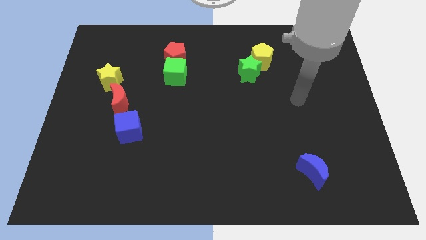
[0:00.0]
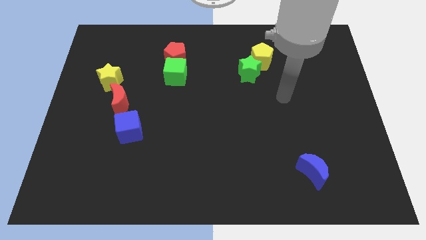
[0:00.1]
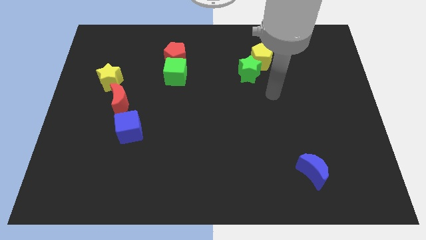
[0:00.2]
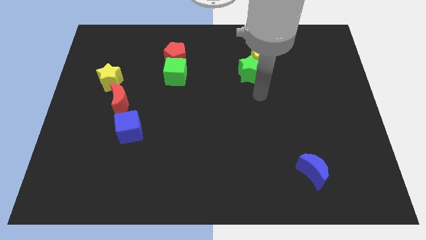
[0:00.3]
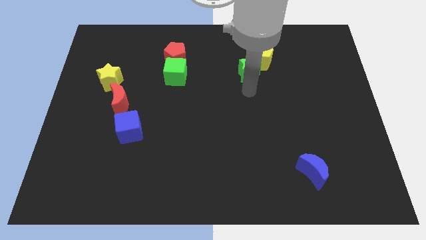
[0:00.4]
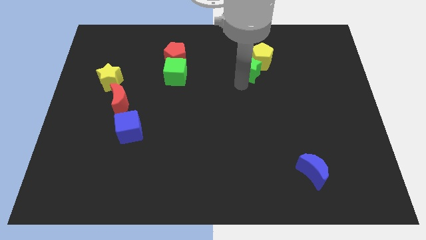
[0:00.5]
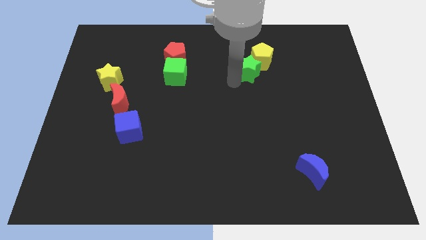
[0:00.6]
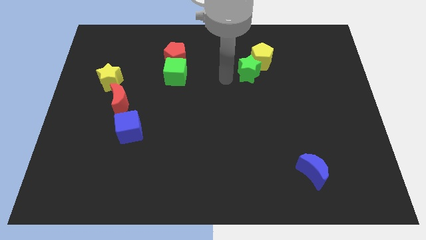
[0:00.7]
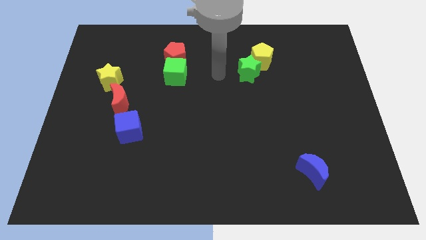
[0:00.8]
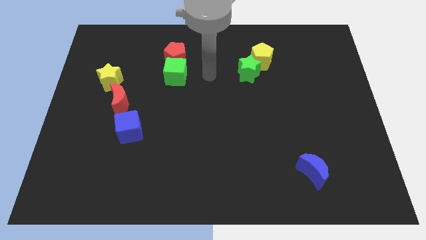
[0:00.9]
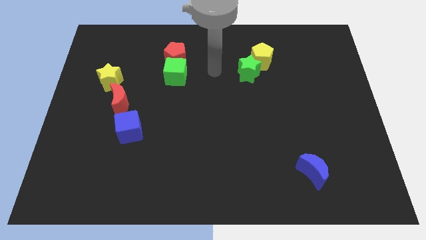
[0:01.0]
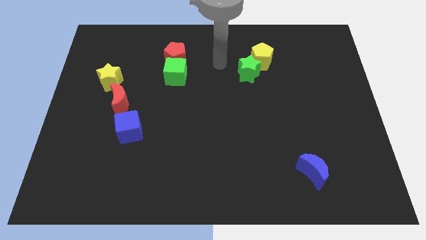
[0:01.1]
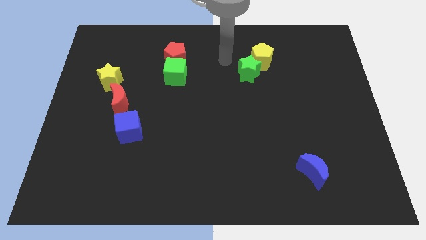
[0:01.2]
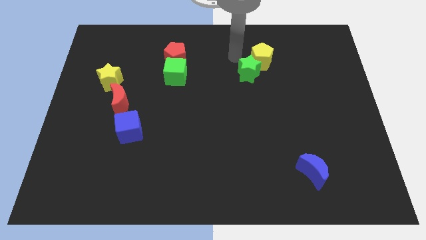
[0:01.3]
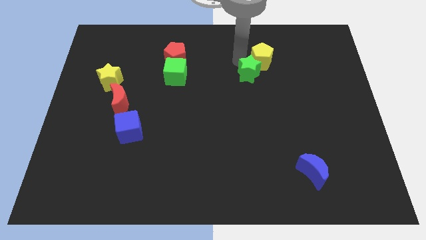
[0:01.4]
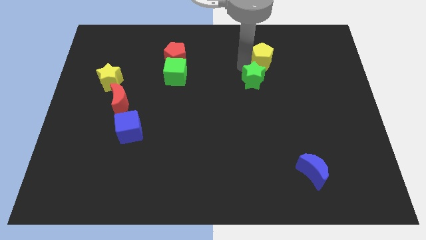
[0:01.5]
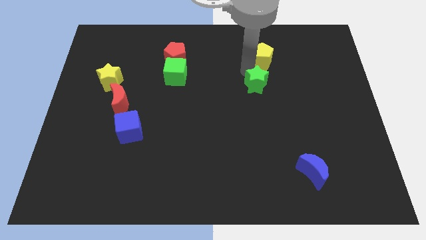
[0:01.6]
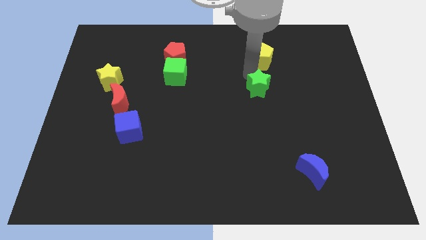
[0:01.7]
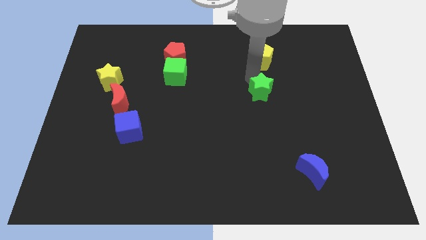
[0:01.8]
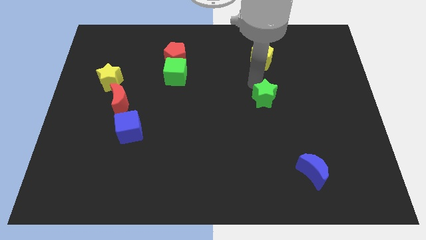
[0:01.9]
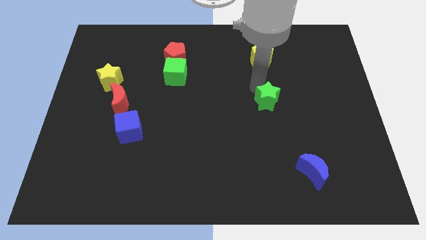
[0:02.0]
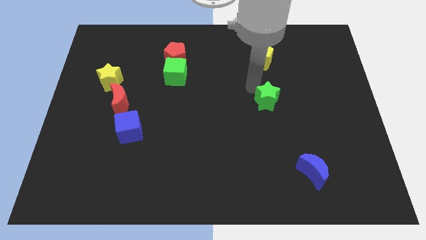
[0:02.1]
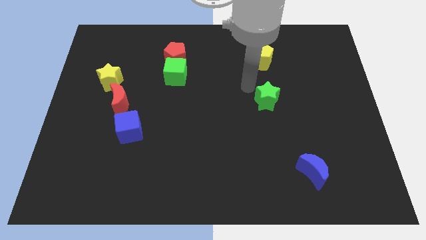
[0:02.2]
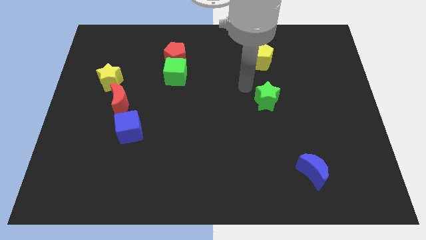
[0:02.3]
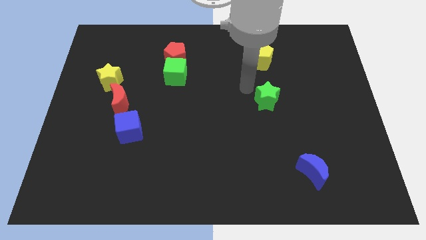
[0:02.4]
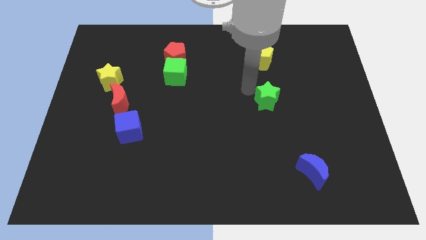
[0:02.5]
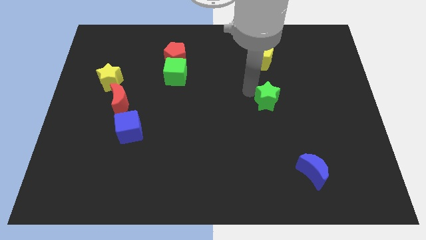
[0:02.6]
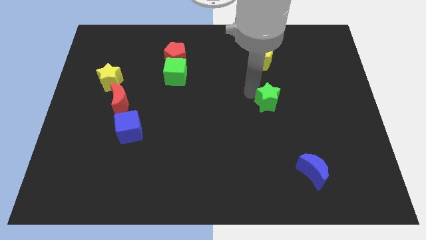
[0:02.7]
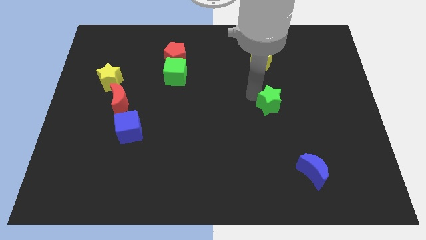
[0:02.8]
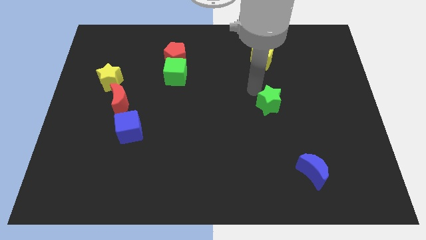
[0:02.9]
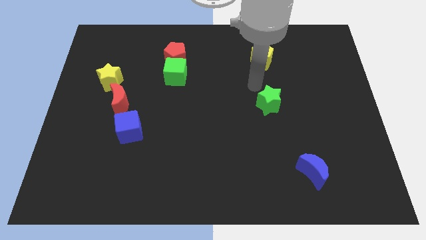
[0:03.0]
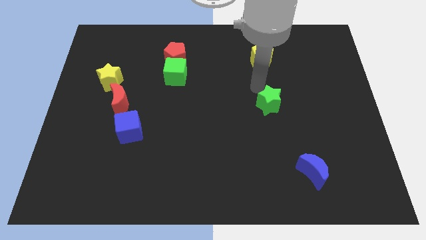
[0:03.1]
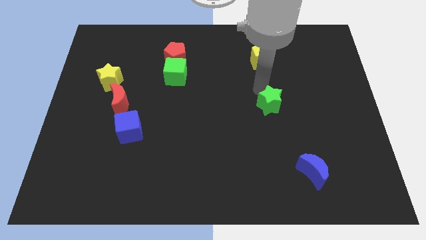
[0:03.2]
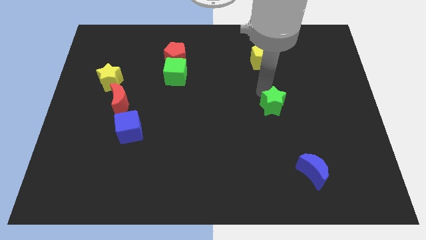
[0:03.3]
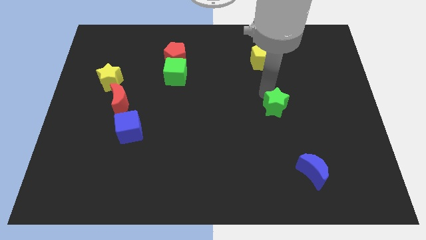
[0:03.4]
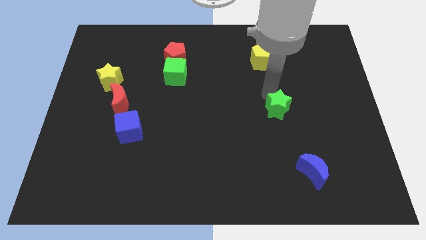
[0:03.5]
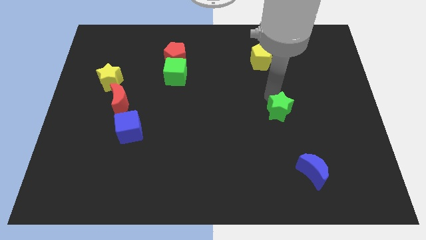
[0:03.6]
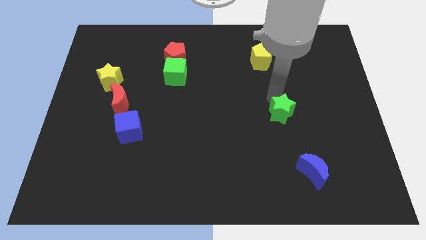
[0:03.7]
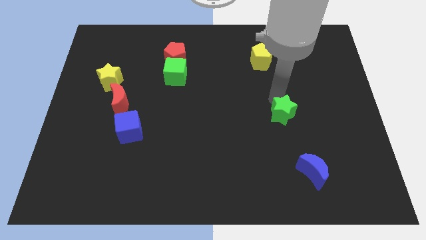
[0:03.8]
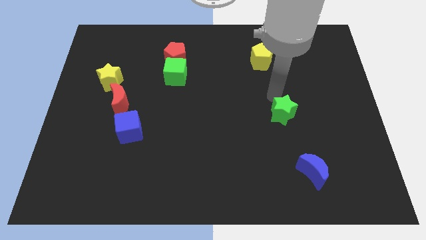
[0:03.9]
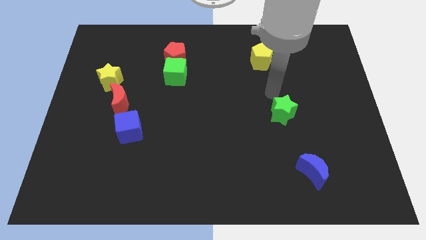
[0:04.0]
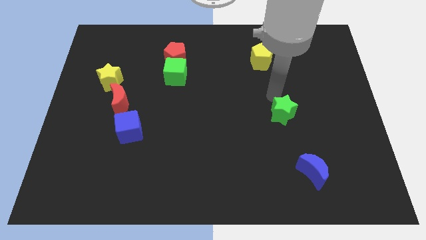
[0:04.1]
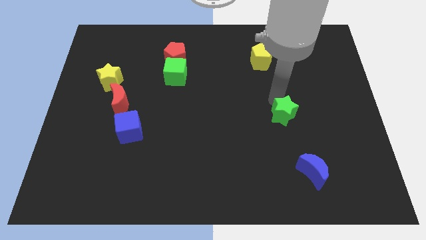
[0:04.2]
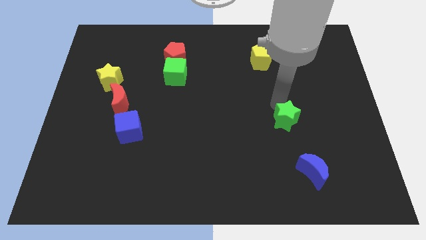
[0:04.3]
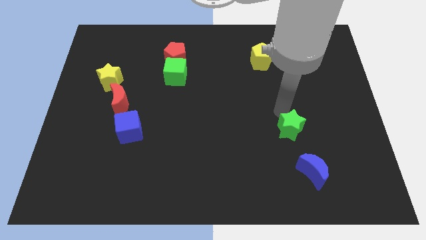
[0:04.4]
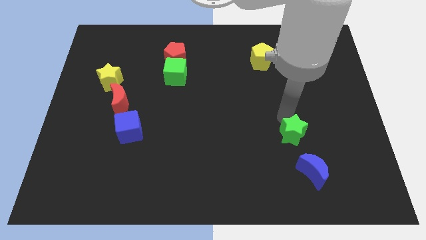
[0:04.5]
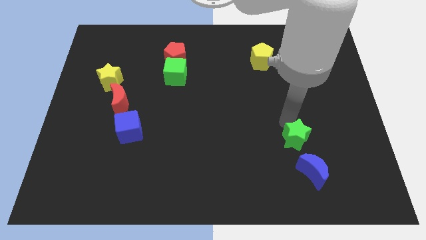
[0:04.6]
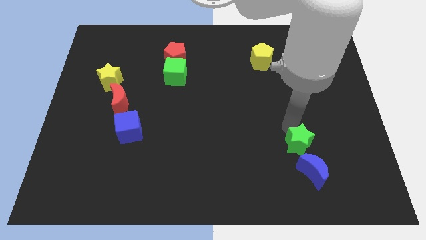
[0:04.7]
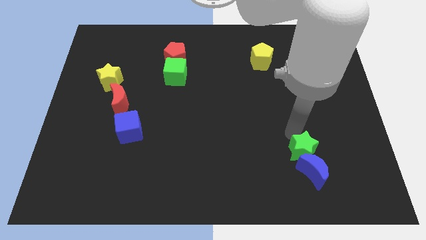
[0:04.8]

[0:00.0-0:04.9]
push the green star to the blue moon

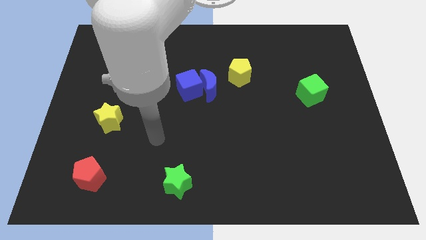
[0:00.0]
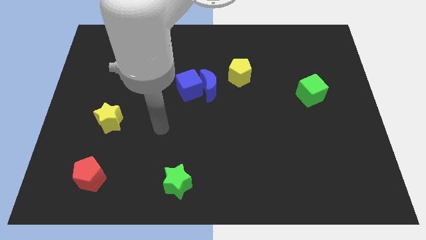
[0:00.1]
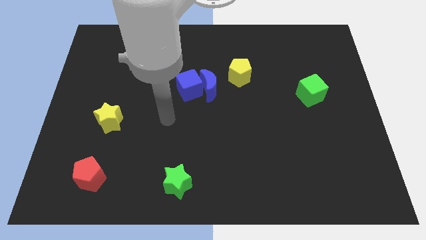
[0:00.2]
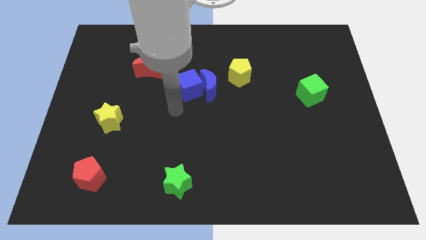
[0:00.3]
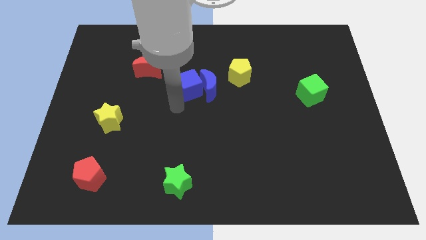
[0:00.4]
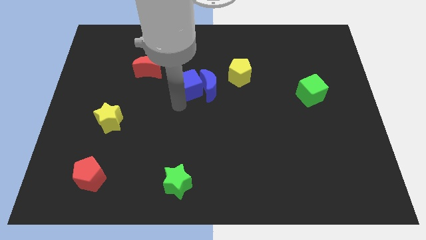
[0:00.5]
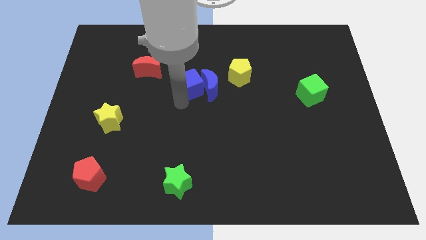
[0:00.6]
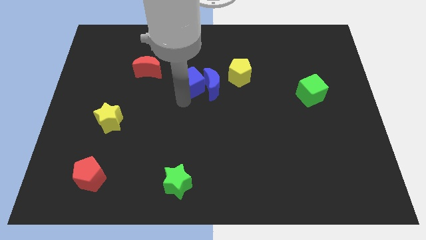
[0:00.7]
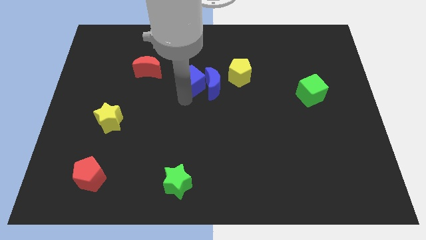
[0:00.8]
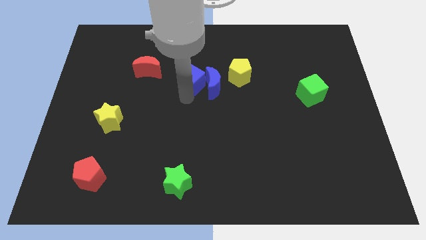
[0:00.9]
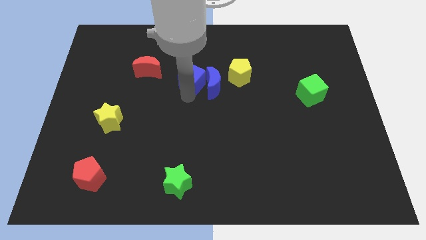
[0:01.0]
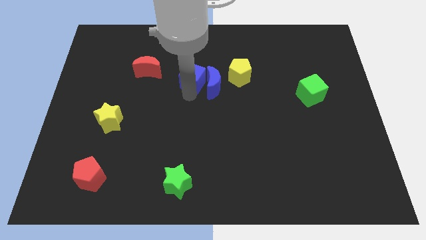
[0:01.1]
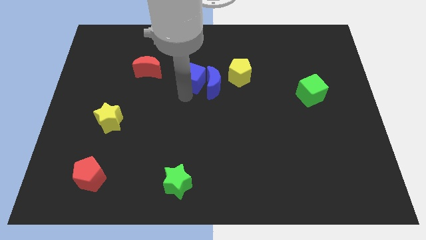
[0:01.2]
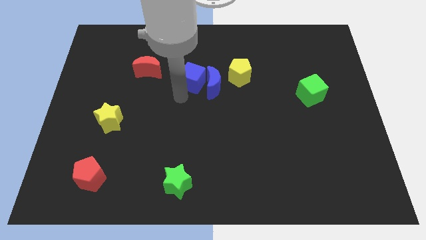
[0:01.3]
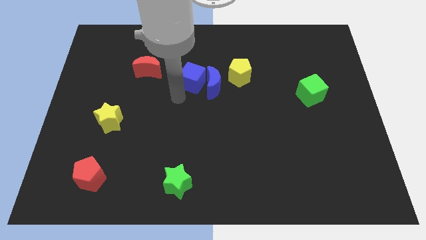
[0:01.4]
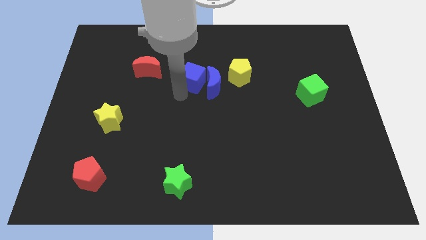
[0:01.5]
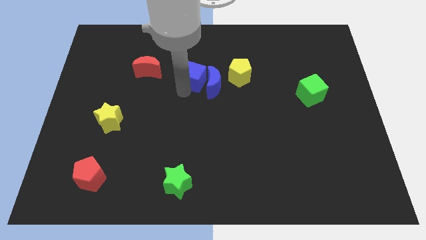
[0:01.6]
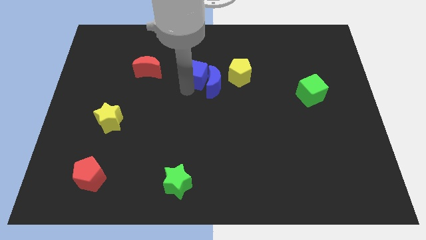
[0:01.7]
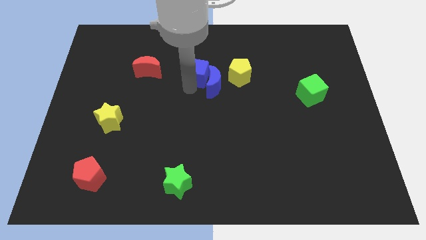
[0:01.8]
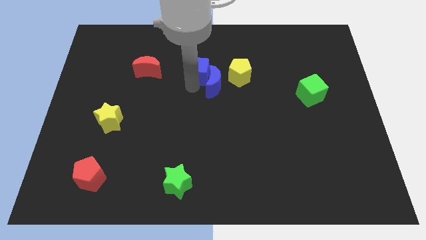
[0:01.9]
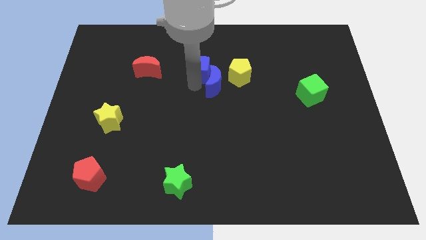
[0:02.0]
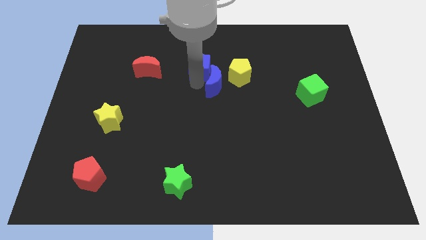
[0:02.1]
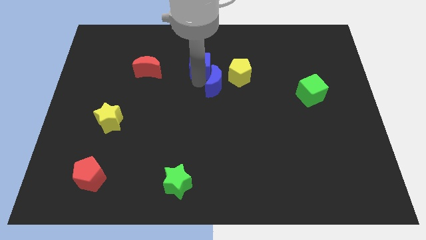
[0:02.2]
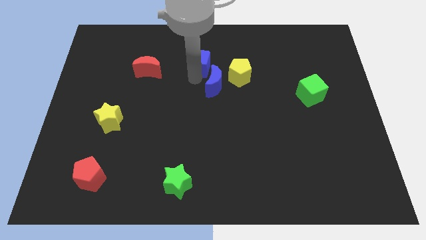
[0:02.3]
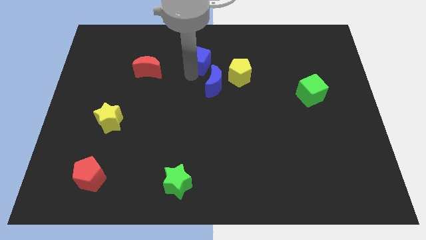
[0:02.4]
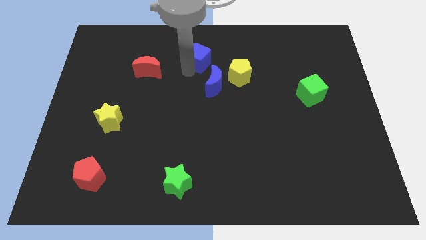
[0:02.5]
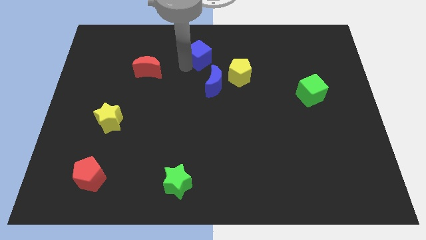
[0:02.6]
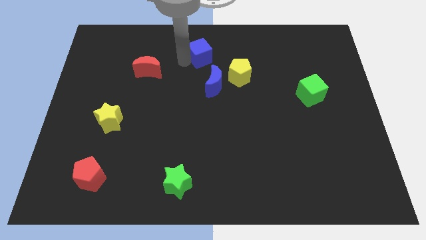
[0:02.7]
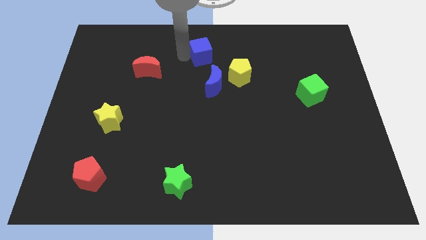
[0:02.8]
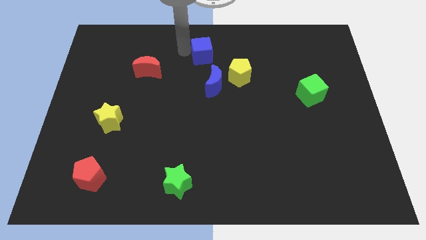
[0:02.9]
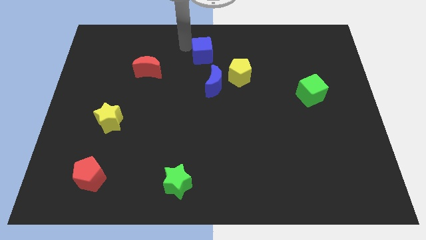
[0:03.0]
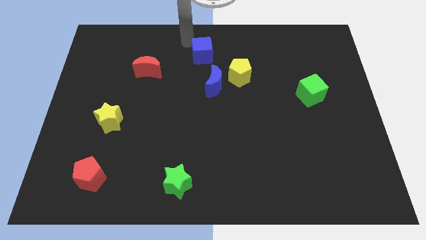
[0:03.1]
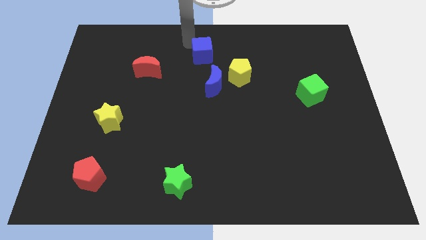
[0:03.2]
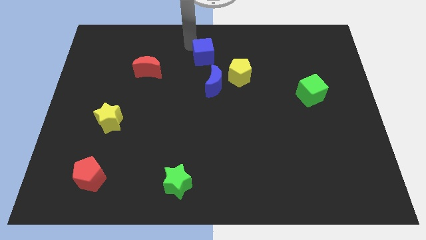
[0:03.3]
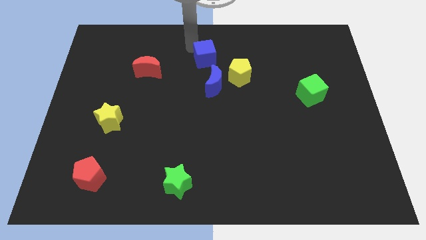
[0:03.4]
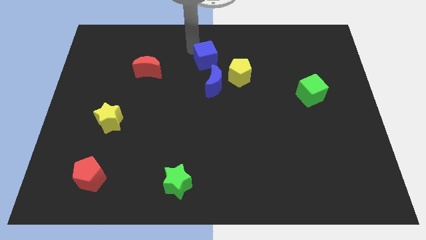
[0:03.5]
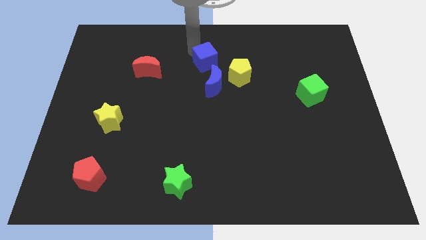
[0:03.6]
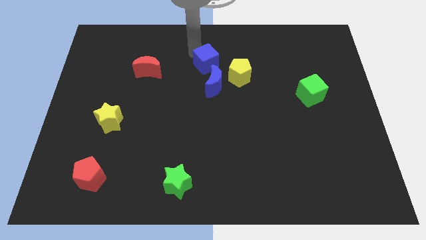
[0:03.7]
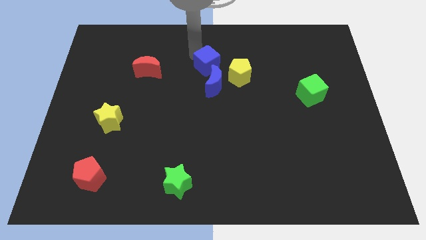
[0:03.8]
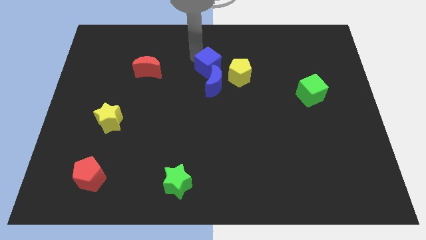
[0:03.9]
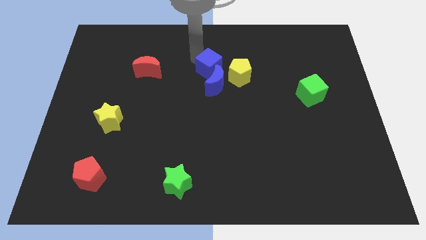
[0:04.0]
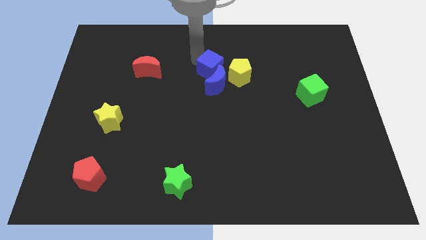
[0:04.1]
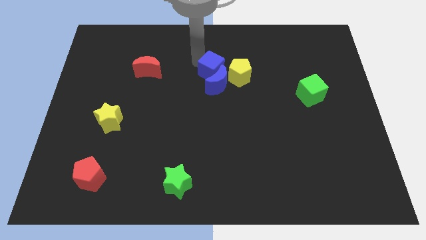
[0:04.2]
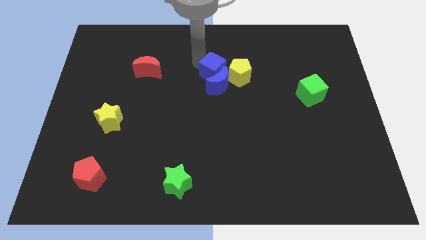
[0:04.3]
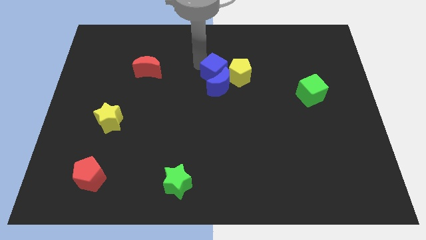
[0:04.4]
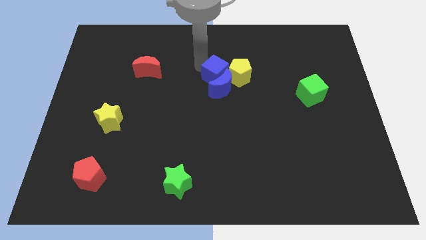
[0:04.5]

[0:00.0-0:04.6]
put the blue cube next to the yellow pentagon
